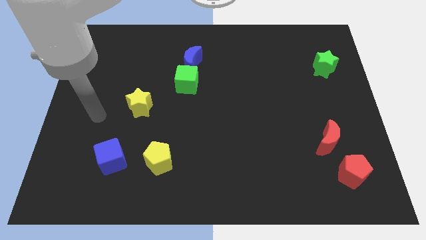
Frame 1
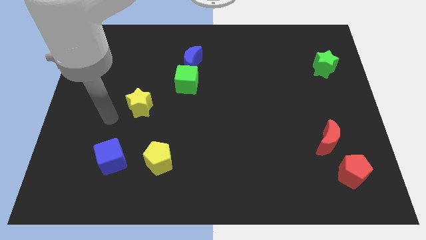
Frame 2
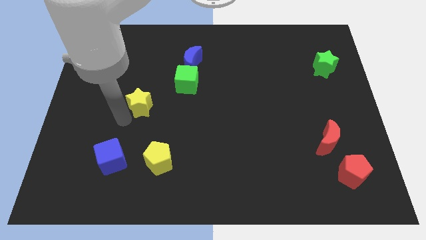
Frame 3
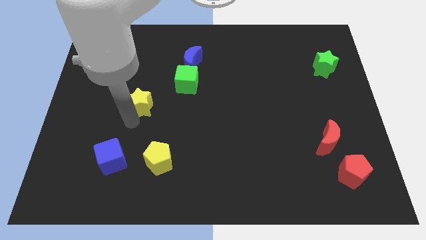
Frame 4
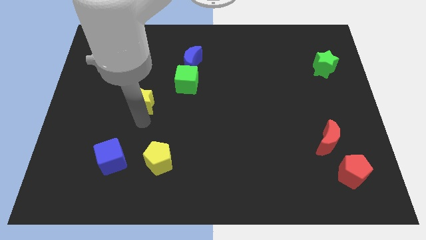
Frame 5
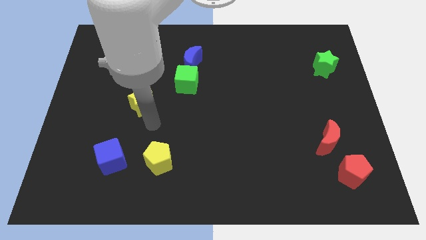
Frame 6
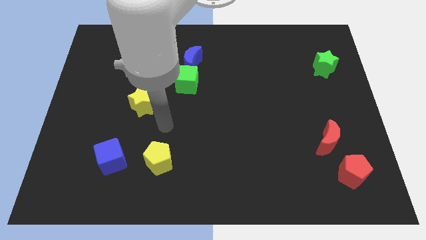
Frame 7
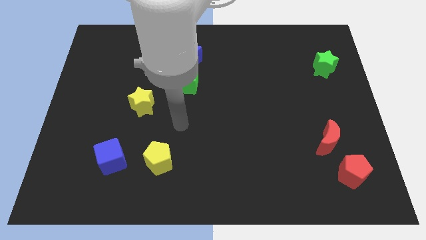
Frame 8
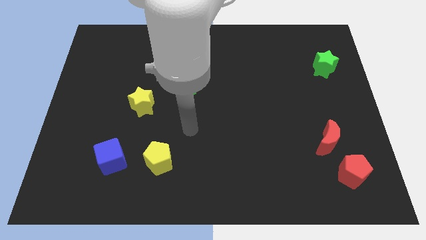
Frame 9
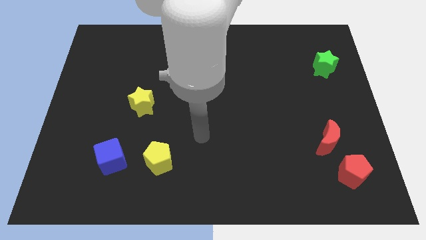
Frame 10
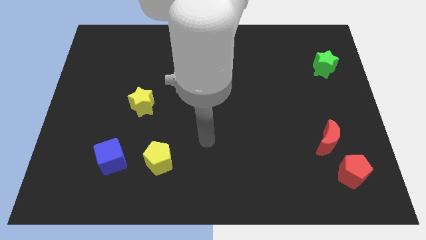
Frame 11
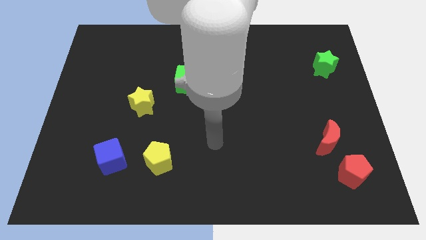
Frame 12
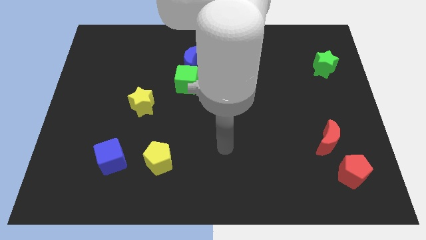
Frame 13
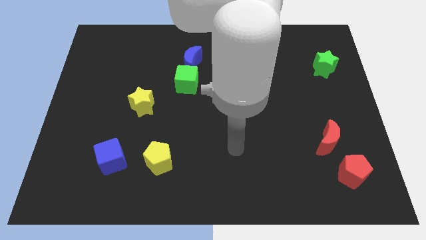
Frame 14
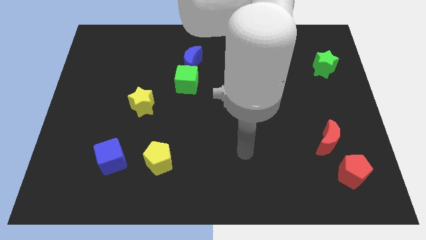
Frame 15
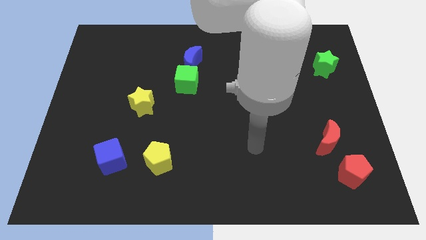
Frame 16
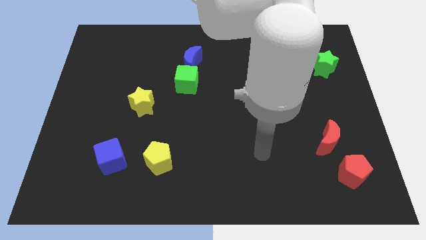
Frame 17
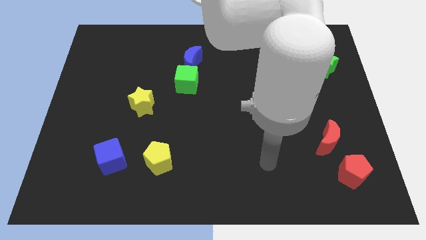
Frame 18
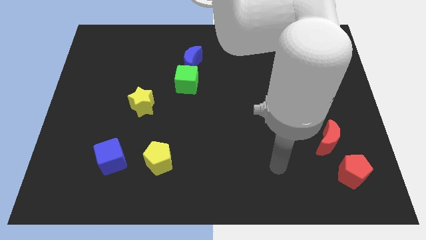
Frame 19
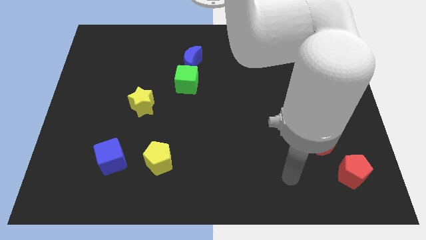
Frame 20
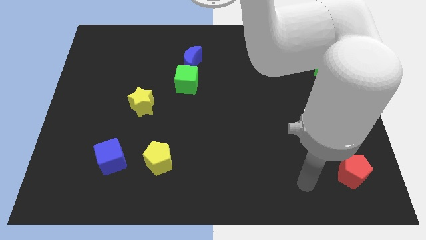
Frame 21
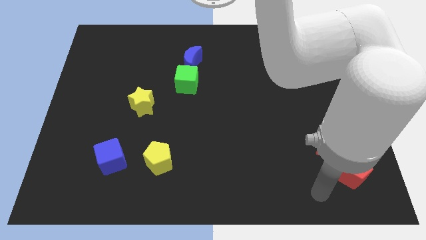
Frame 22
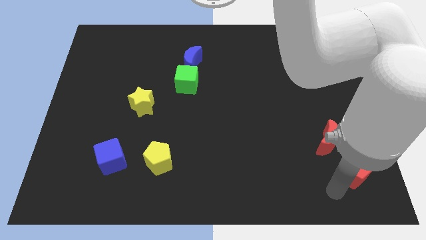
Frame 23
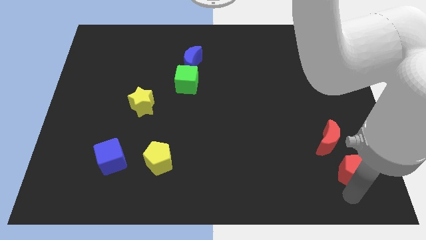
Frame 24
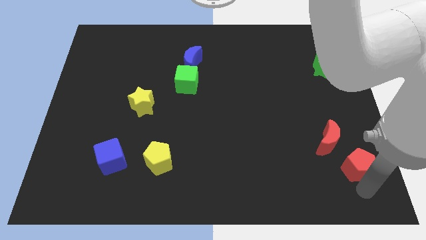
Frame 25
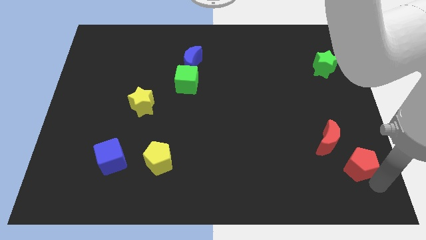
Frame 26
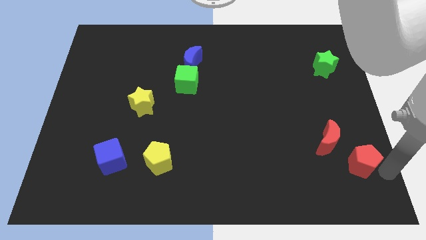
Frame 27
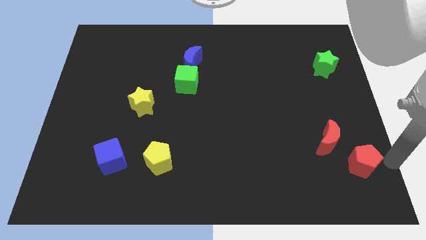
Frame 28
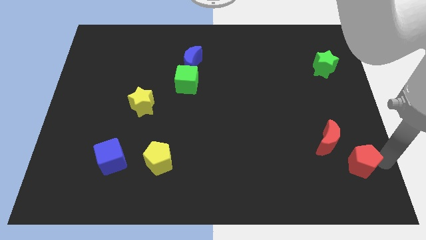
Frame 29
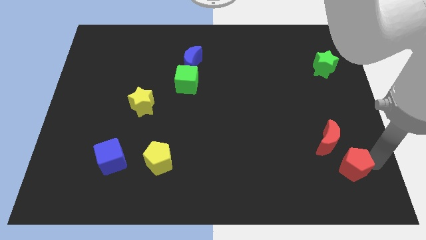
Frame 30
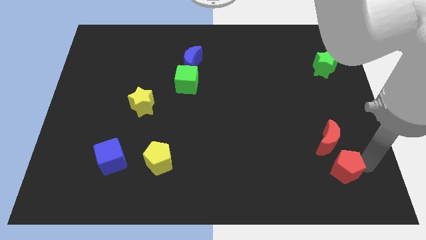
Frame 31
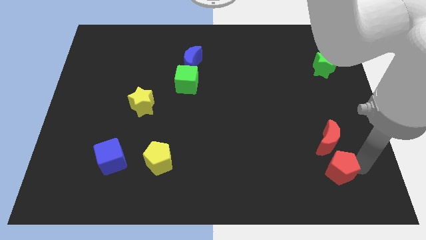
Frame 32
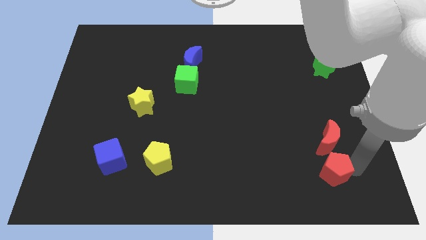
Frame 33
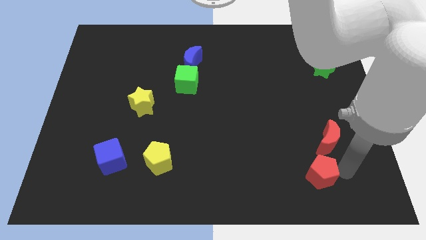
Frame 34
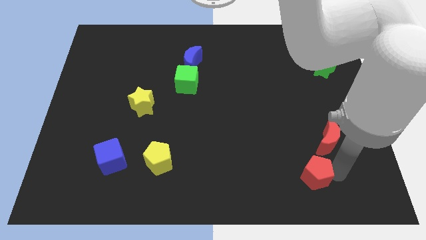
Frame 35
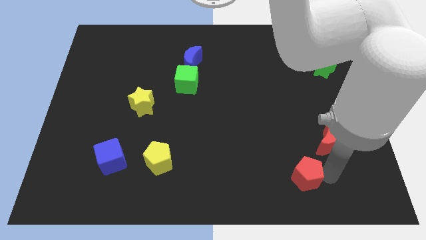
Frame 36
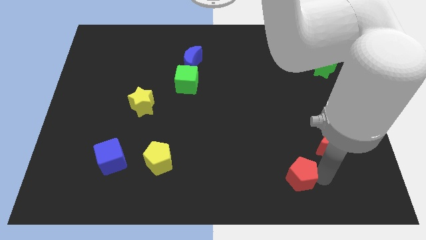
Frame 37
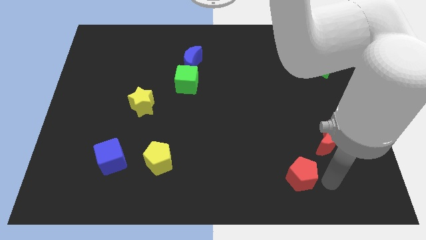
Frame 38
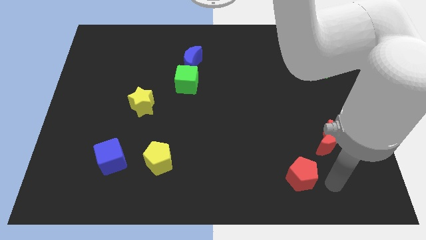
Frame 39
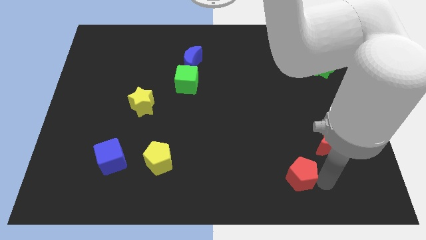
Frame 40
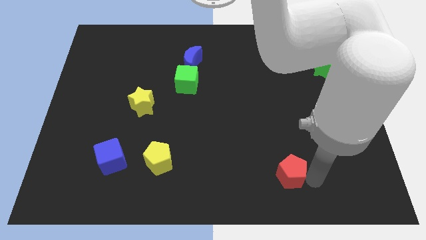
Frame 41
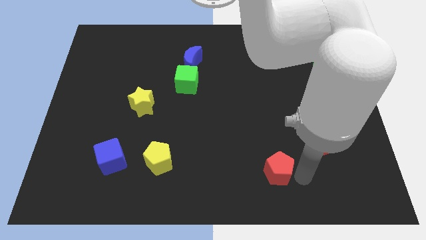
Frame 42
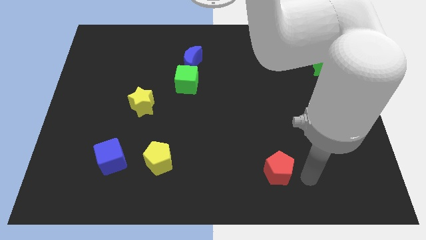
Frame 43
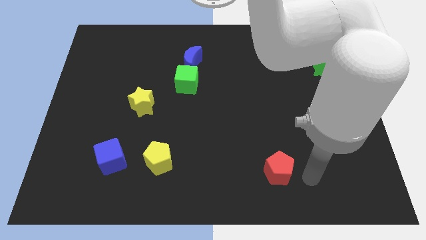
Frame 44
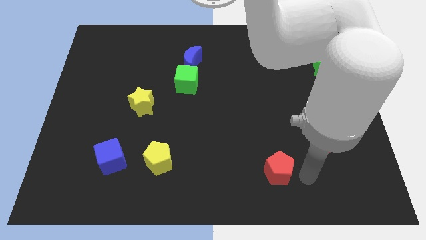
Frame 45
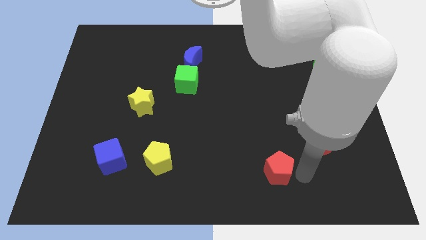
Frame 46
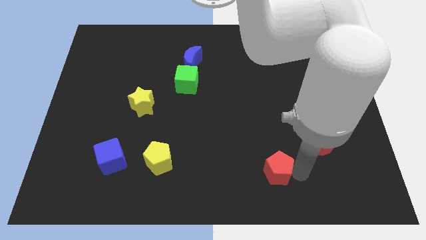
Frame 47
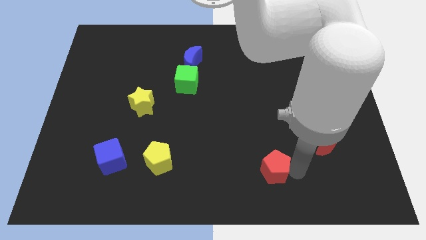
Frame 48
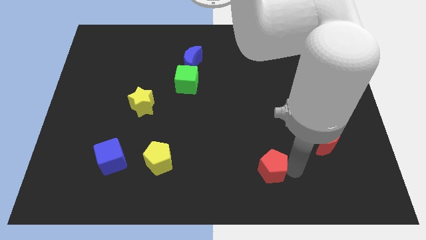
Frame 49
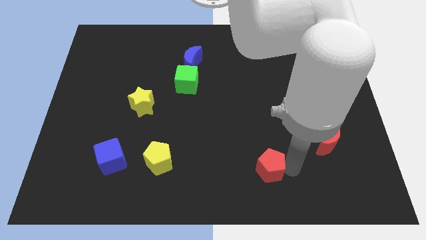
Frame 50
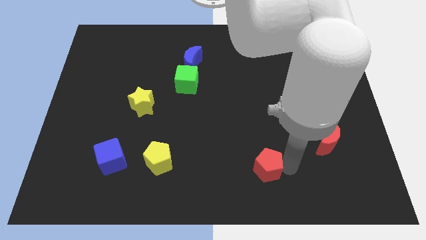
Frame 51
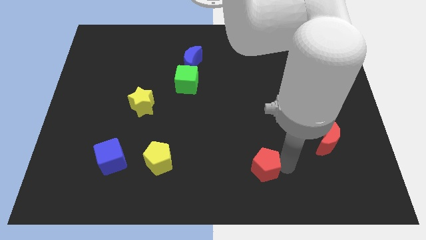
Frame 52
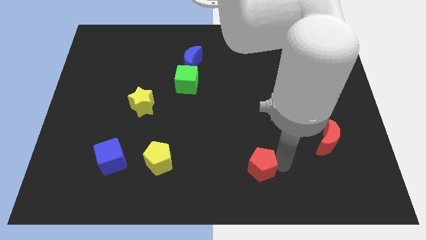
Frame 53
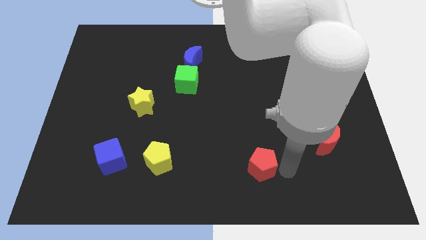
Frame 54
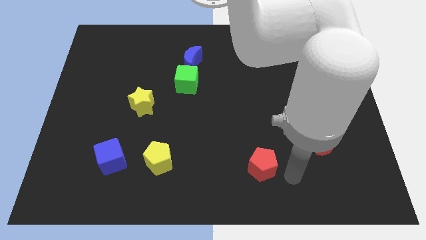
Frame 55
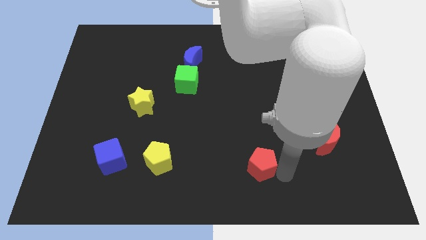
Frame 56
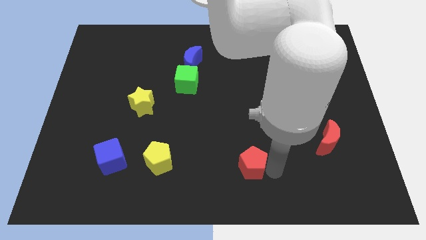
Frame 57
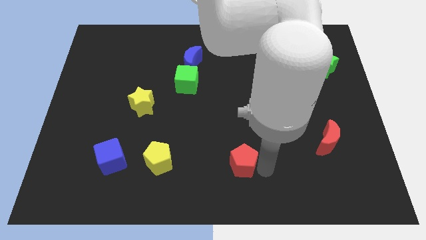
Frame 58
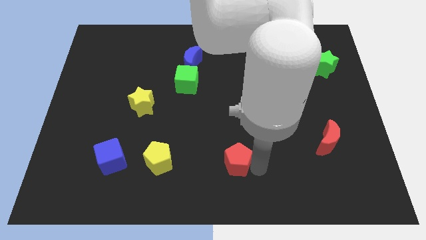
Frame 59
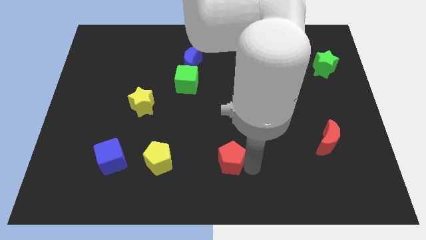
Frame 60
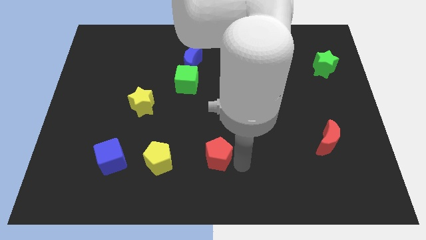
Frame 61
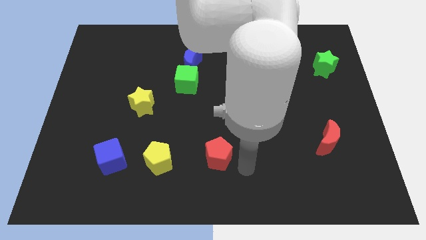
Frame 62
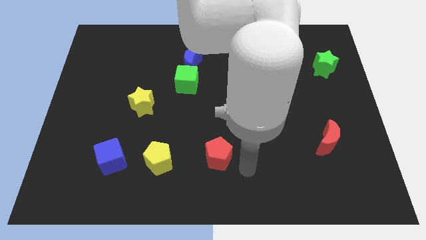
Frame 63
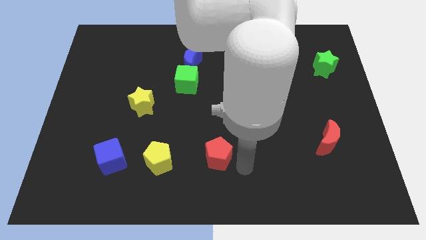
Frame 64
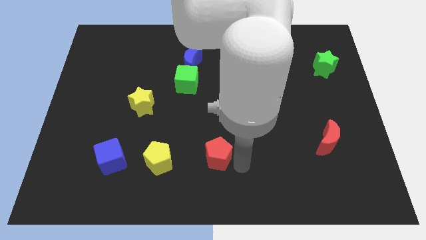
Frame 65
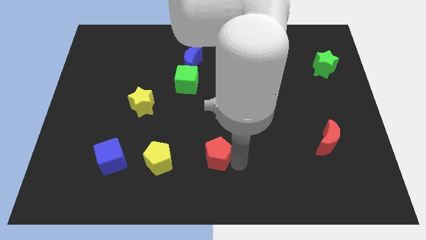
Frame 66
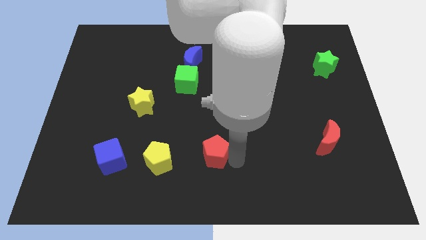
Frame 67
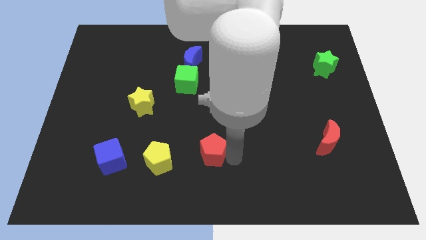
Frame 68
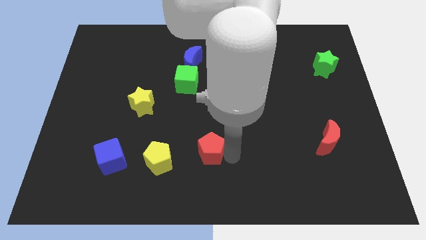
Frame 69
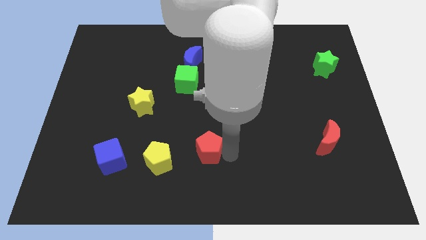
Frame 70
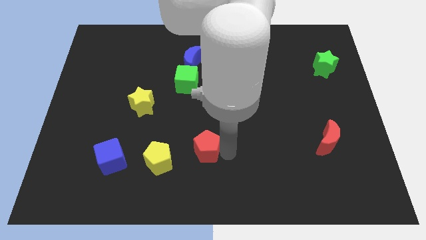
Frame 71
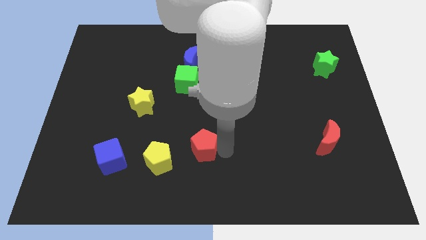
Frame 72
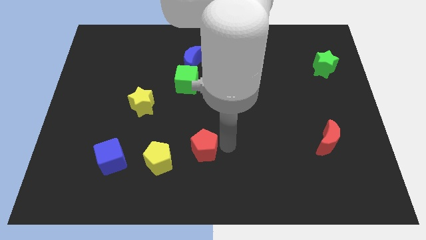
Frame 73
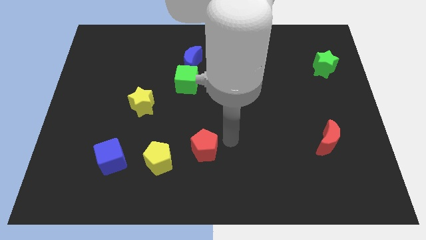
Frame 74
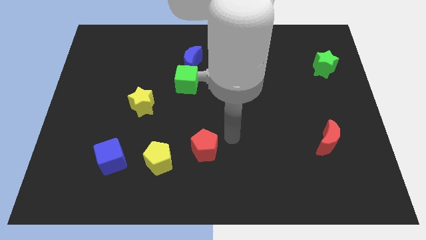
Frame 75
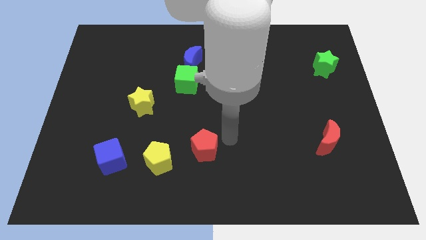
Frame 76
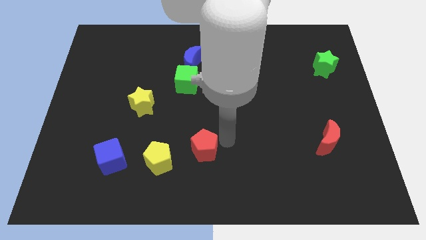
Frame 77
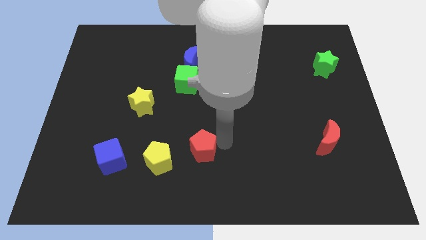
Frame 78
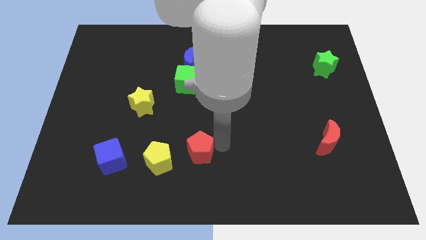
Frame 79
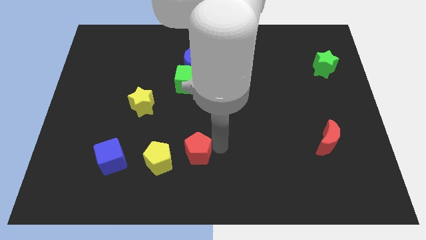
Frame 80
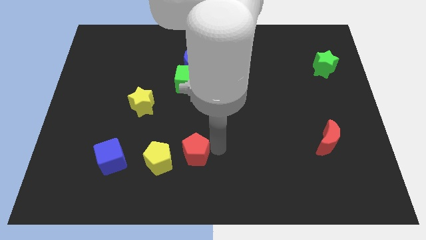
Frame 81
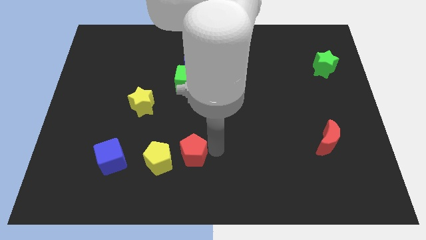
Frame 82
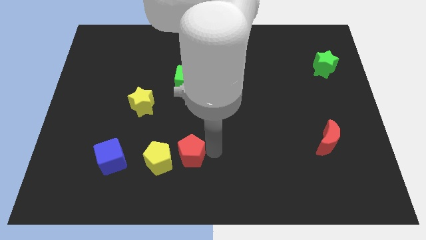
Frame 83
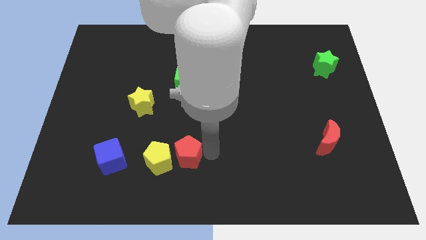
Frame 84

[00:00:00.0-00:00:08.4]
slide the red pentagon right of the blue cube
